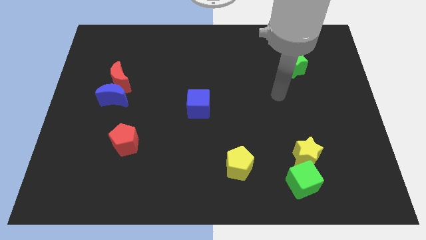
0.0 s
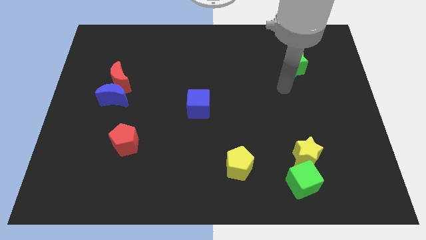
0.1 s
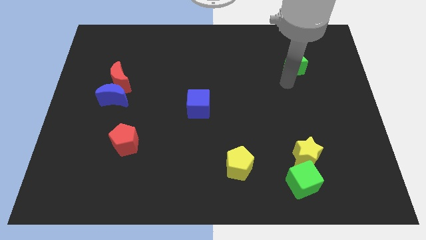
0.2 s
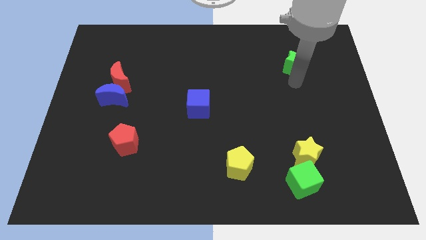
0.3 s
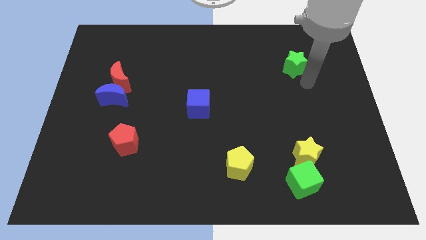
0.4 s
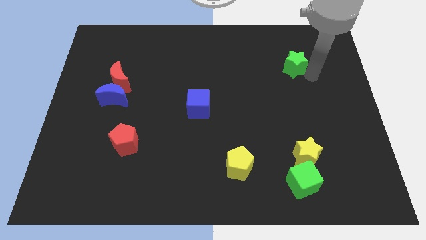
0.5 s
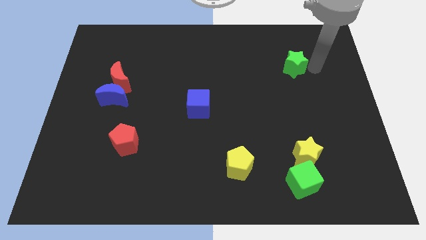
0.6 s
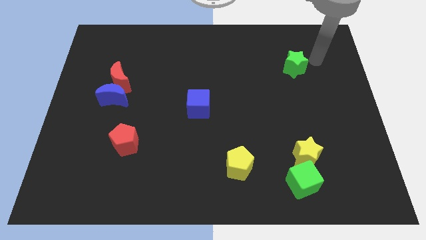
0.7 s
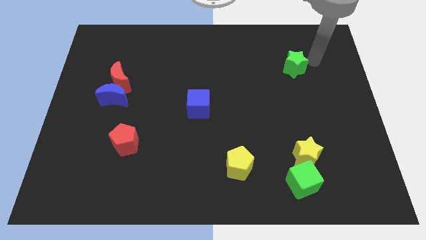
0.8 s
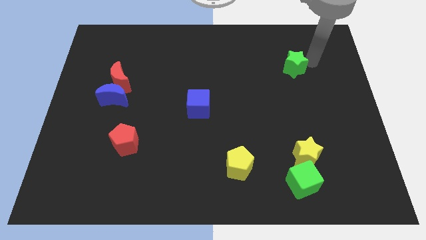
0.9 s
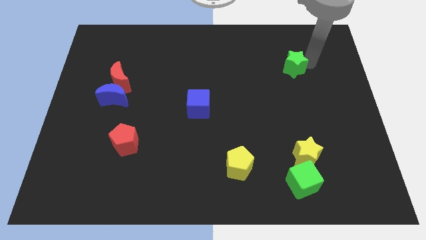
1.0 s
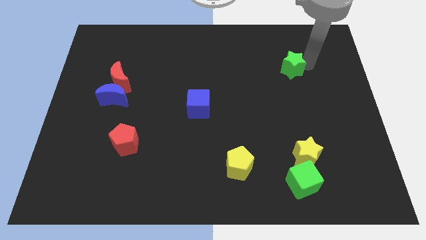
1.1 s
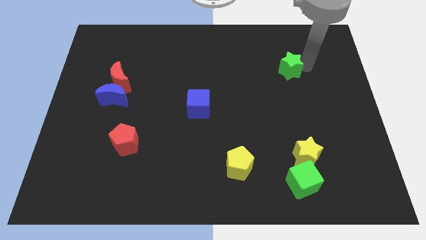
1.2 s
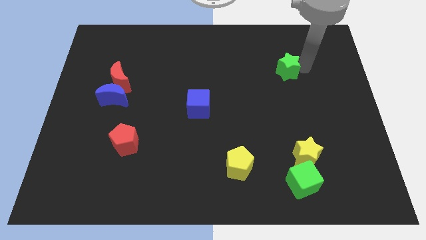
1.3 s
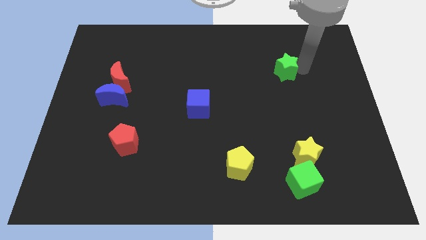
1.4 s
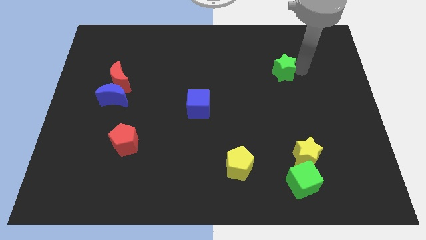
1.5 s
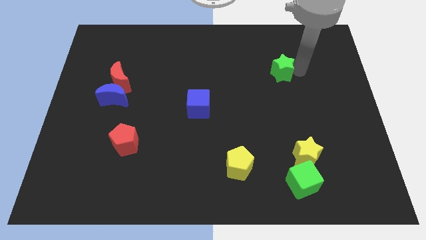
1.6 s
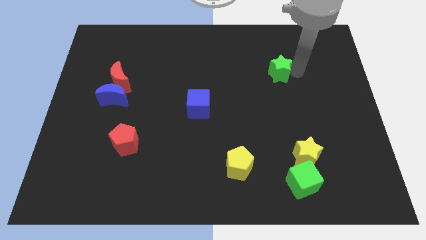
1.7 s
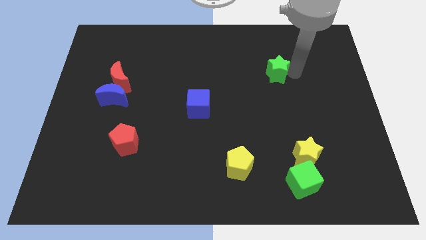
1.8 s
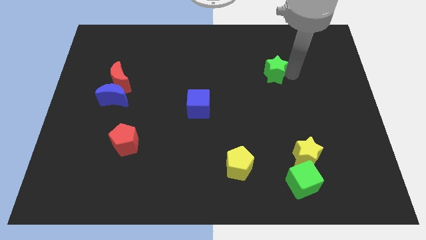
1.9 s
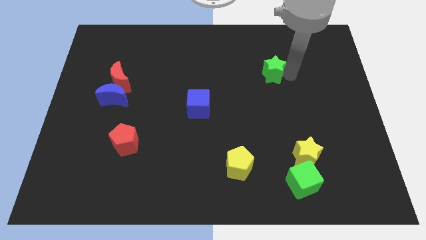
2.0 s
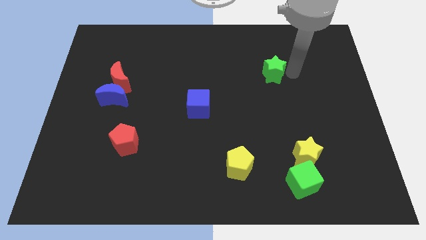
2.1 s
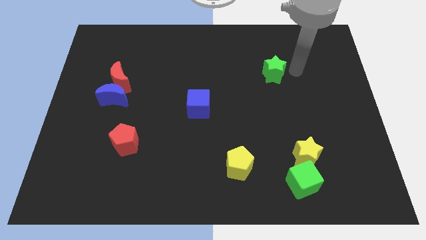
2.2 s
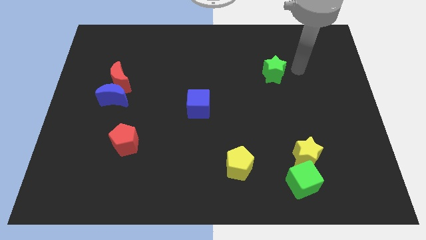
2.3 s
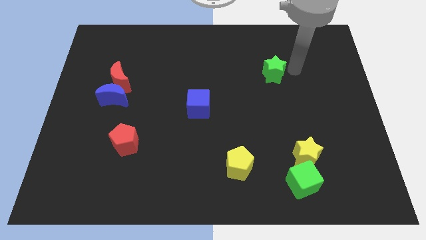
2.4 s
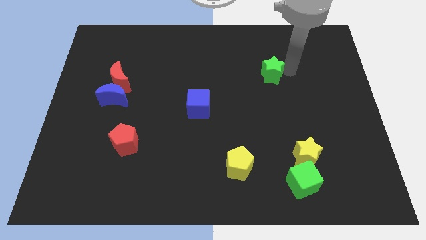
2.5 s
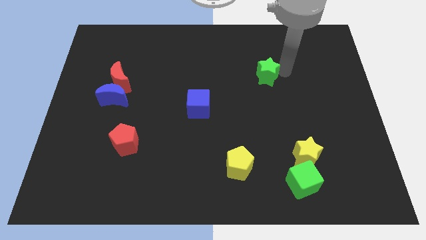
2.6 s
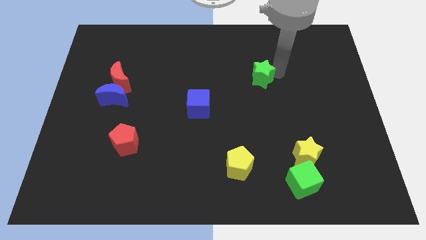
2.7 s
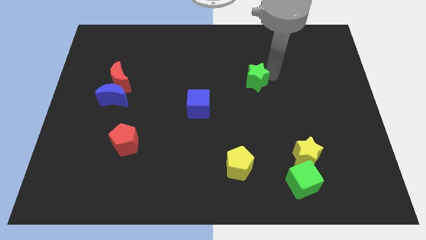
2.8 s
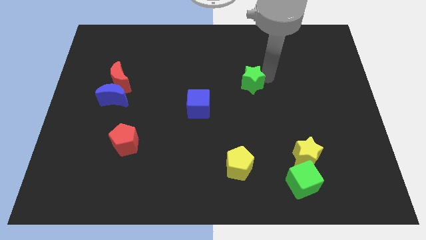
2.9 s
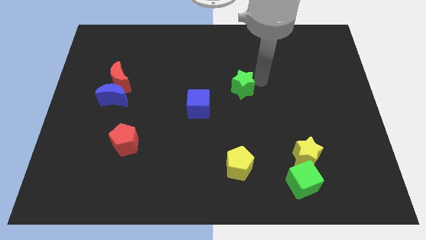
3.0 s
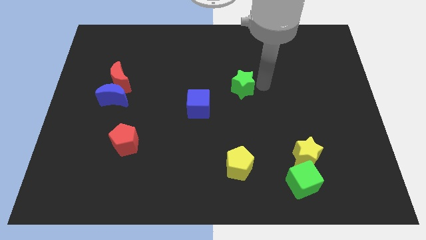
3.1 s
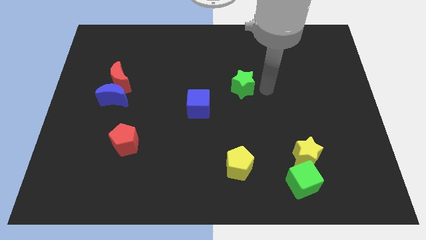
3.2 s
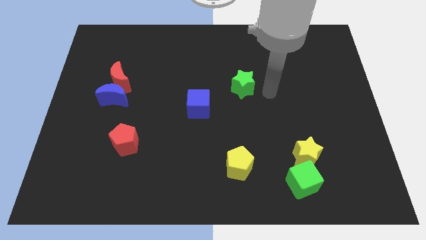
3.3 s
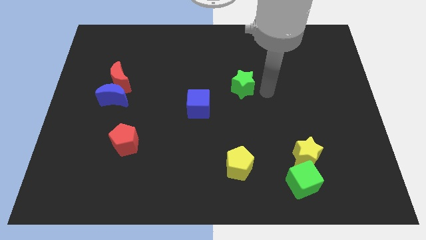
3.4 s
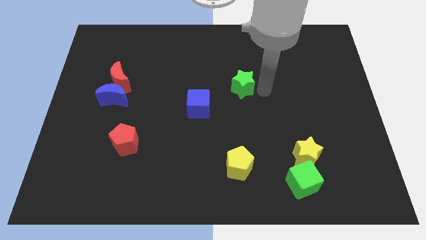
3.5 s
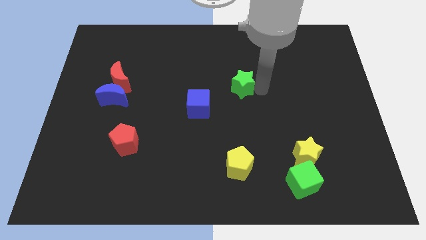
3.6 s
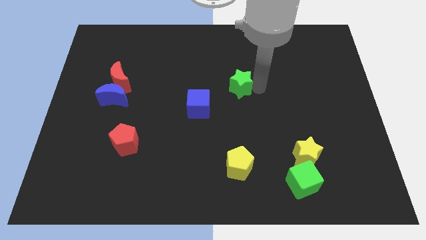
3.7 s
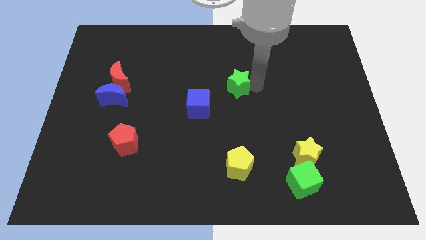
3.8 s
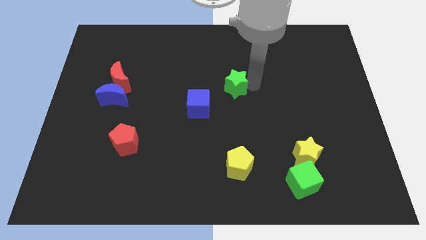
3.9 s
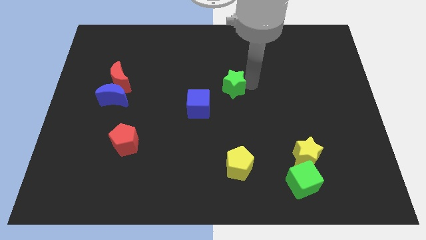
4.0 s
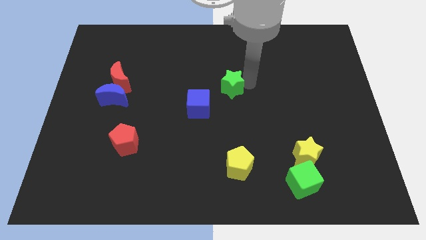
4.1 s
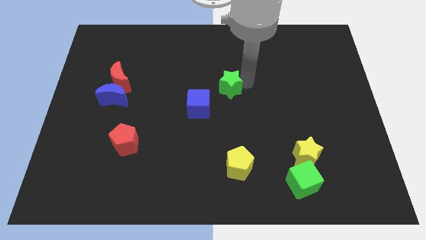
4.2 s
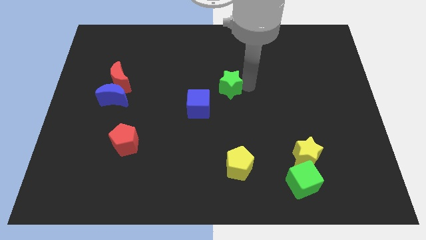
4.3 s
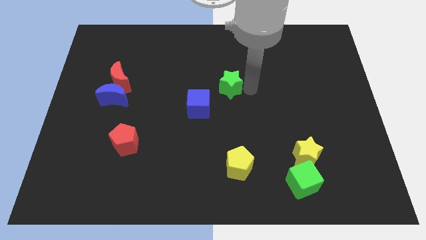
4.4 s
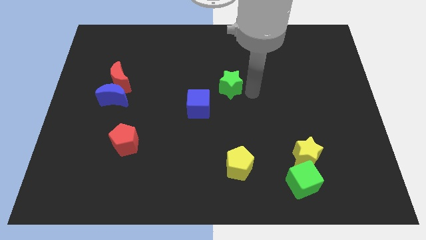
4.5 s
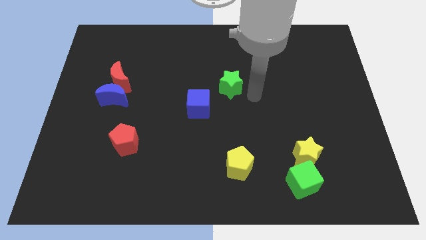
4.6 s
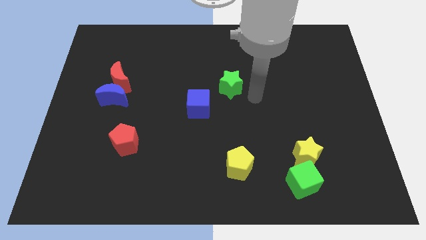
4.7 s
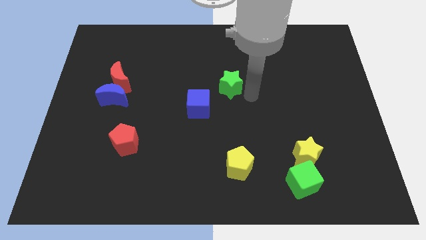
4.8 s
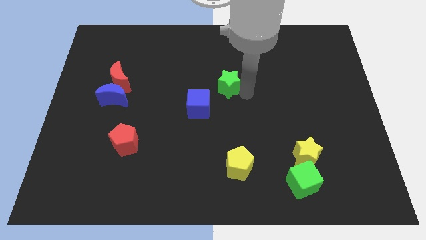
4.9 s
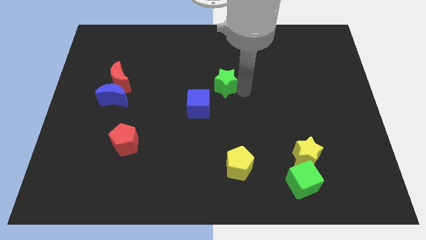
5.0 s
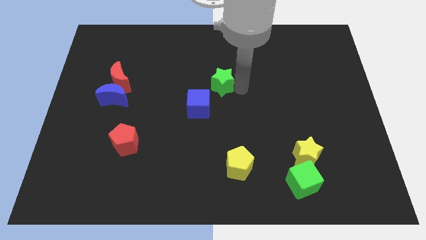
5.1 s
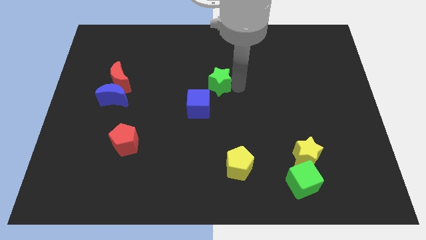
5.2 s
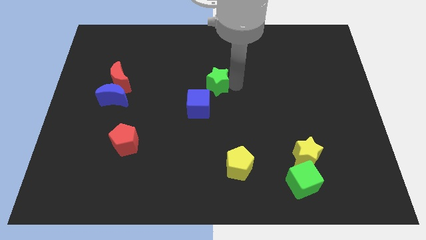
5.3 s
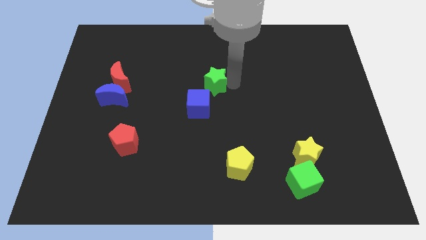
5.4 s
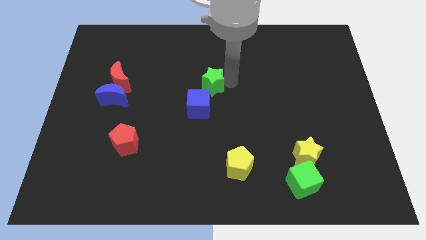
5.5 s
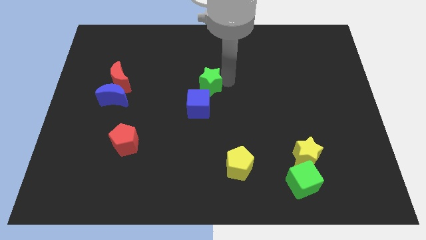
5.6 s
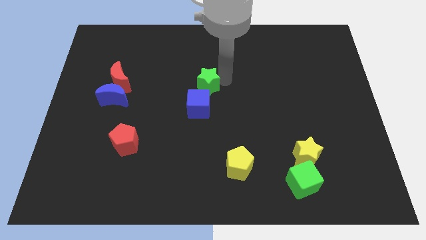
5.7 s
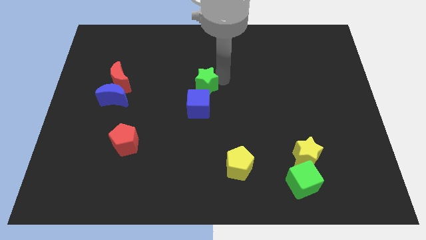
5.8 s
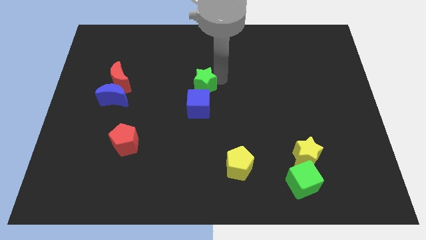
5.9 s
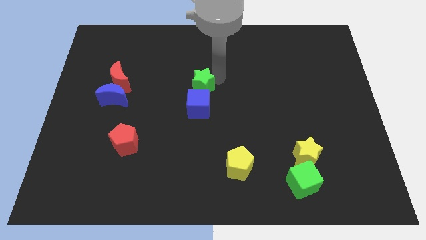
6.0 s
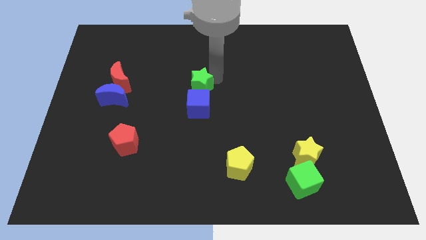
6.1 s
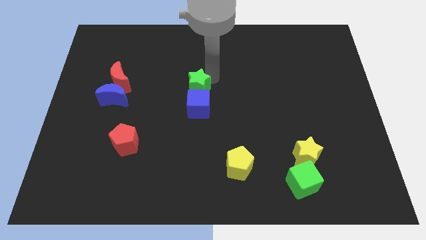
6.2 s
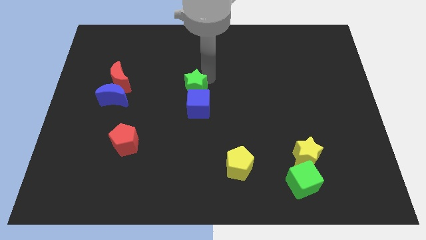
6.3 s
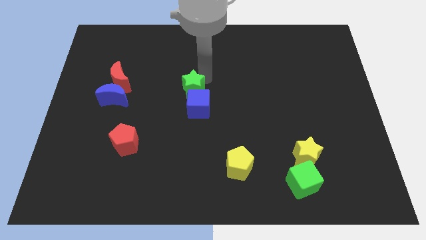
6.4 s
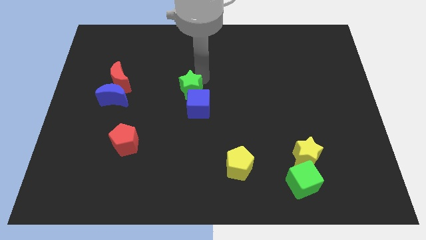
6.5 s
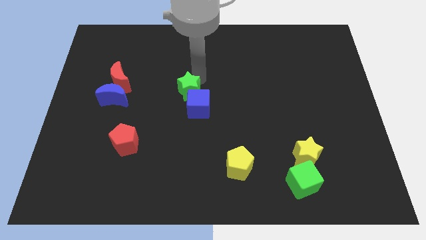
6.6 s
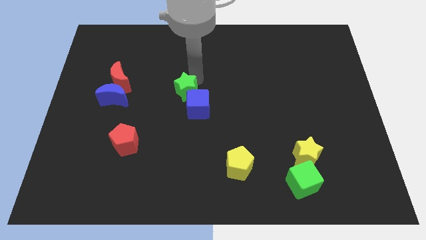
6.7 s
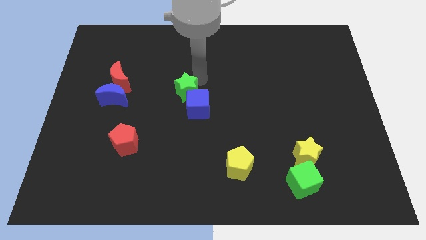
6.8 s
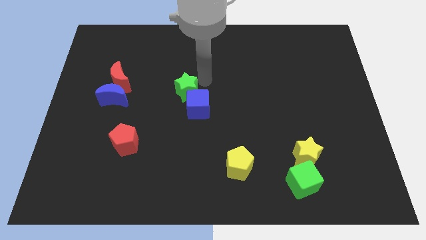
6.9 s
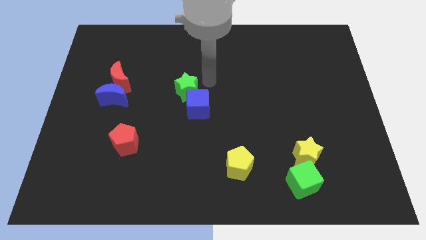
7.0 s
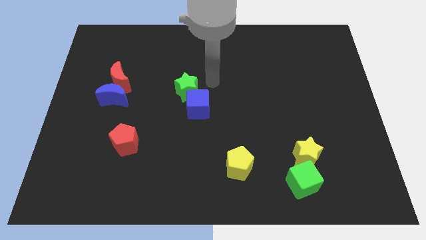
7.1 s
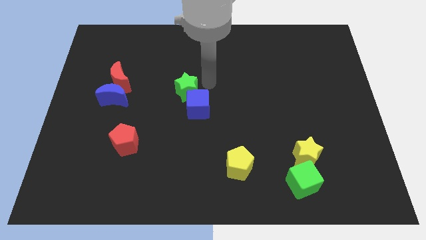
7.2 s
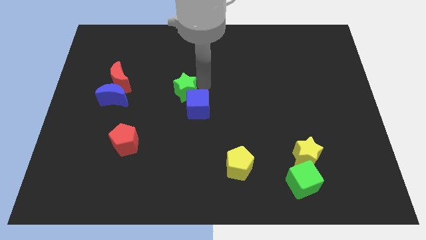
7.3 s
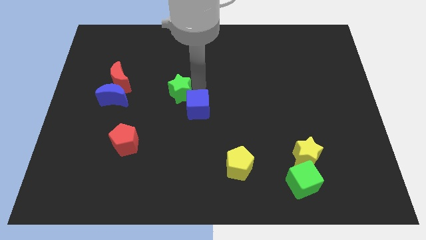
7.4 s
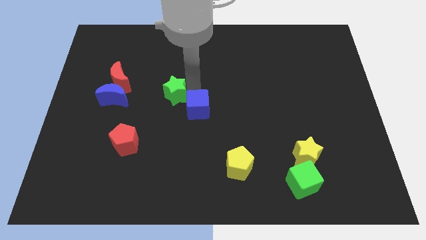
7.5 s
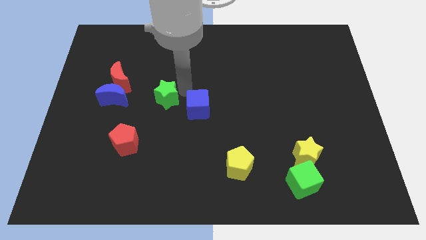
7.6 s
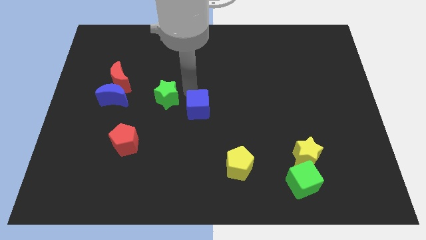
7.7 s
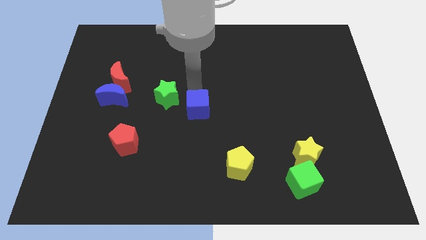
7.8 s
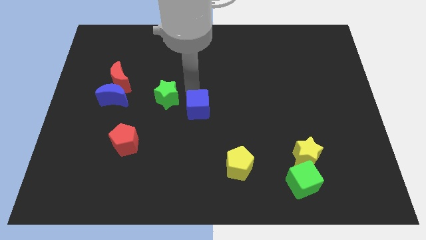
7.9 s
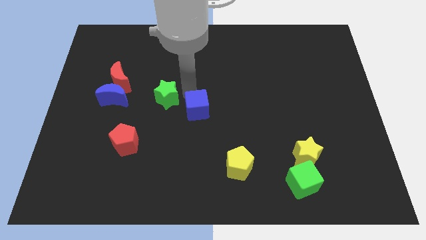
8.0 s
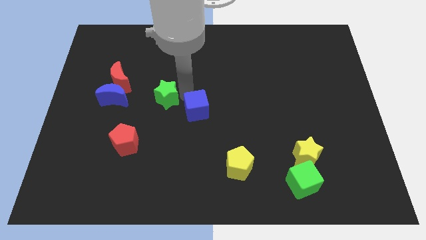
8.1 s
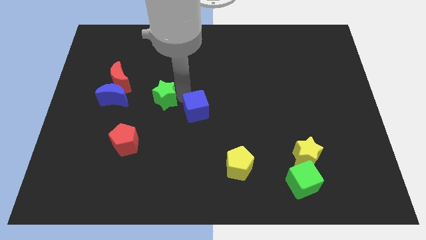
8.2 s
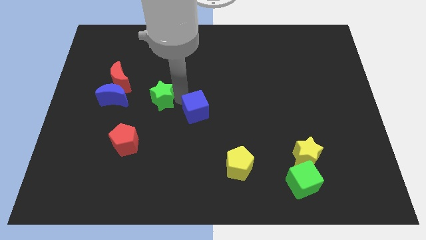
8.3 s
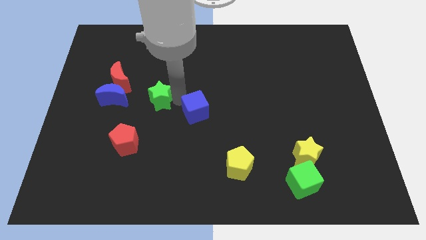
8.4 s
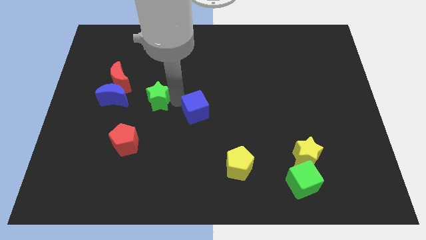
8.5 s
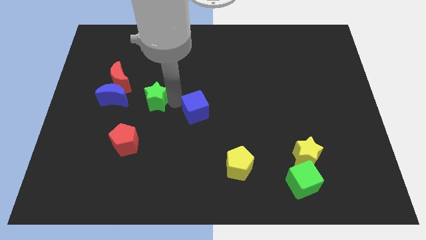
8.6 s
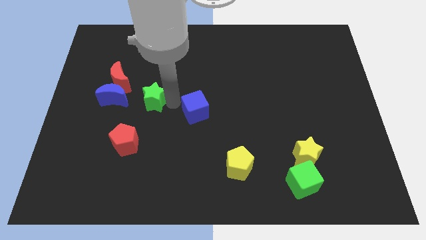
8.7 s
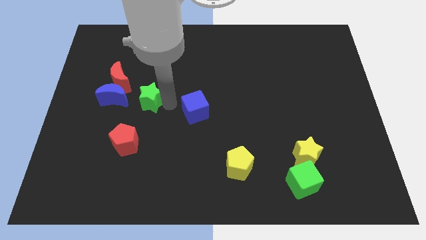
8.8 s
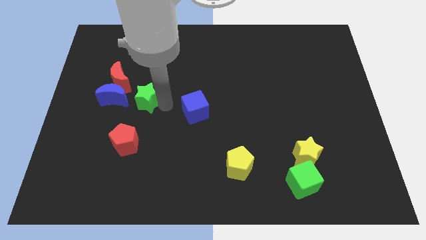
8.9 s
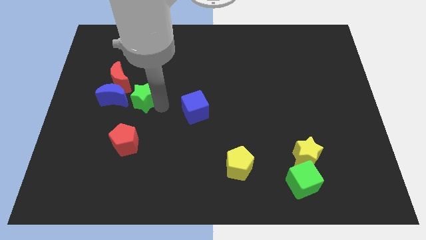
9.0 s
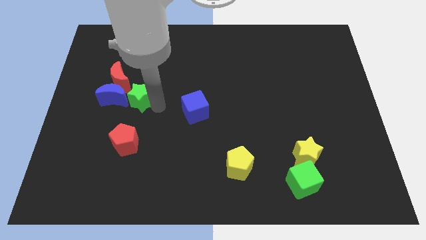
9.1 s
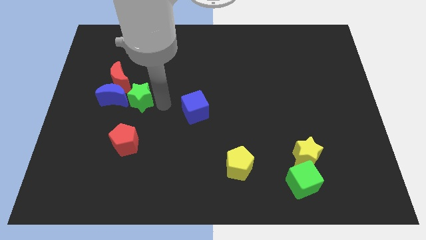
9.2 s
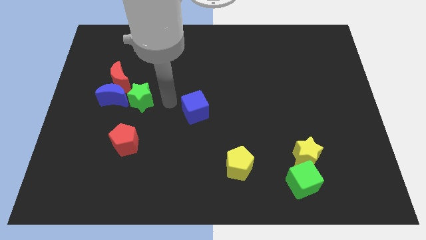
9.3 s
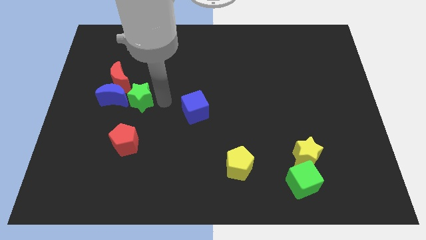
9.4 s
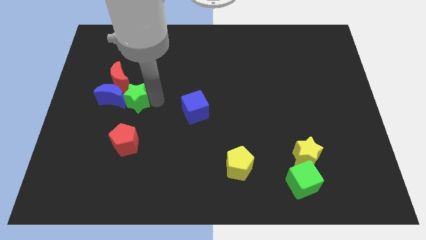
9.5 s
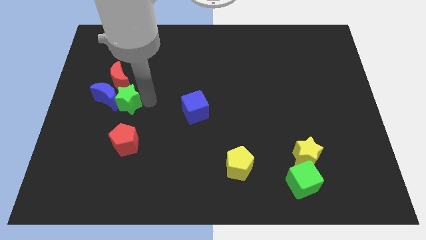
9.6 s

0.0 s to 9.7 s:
push the green star towards the blue moon
